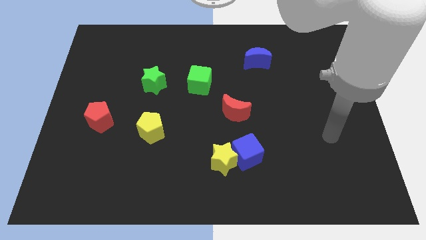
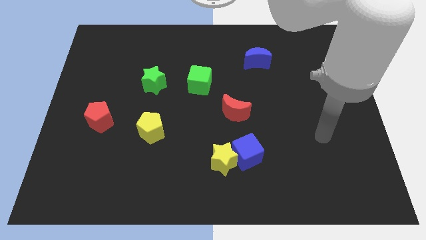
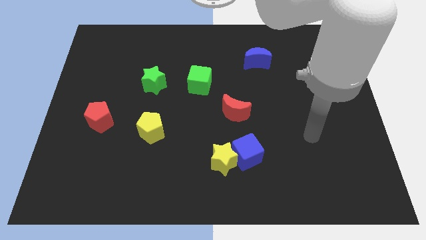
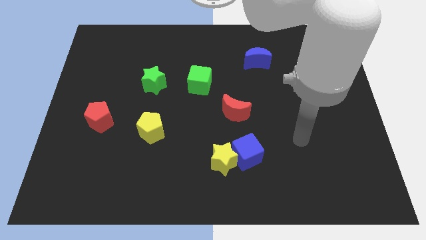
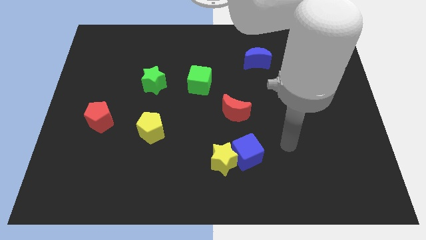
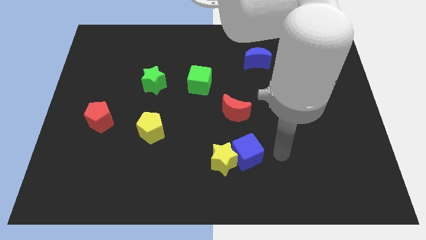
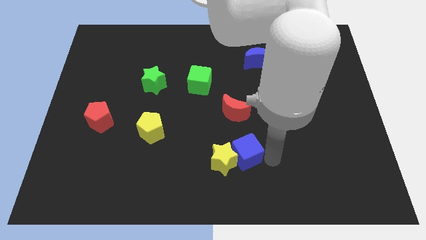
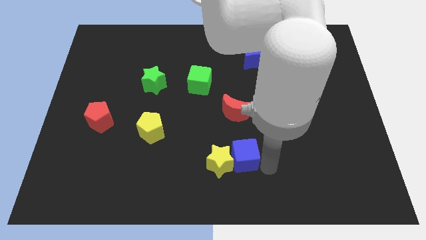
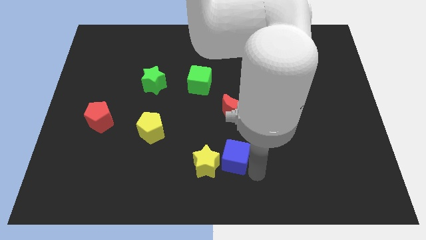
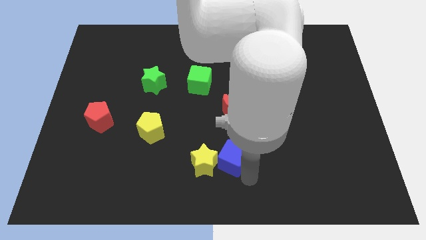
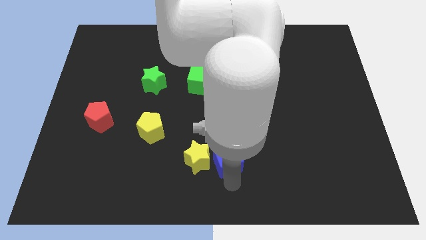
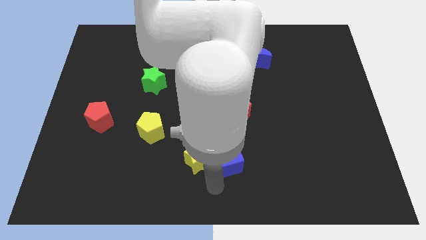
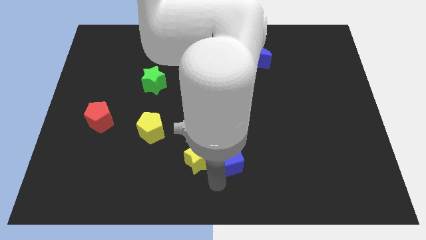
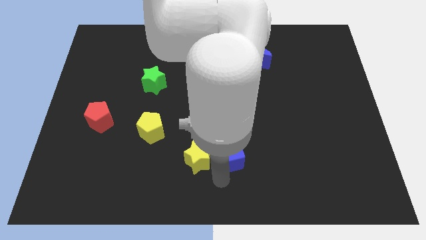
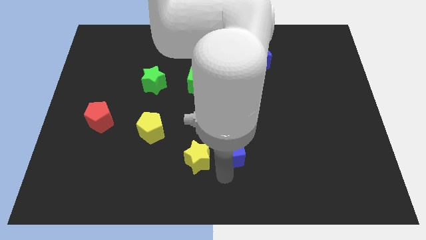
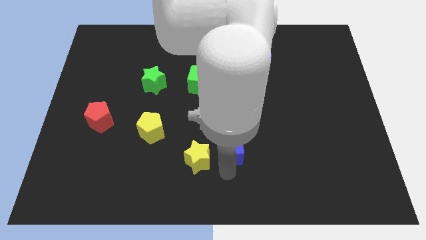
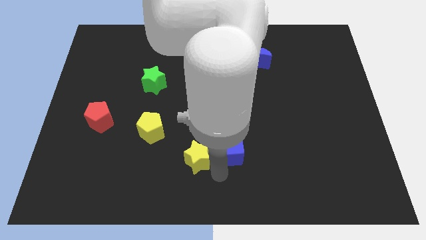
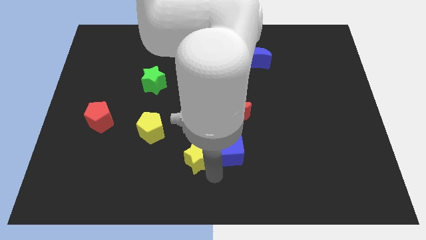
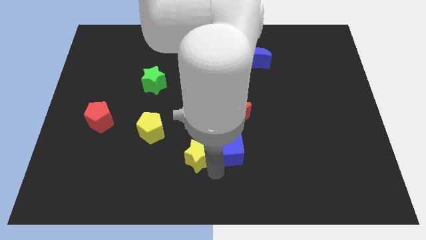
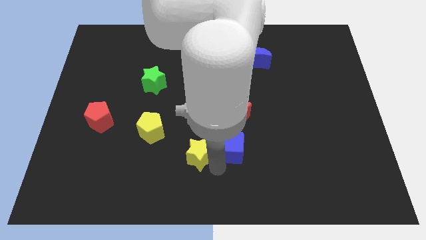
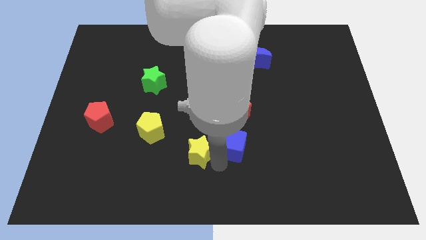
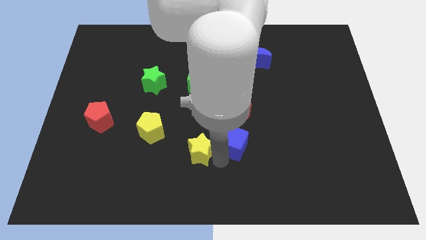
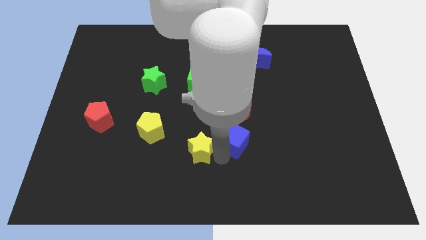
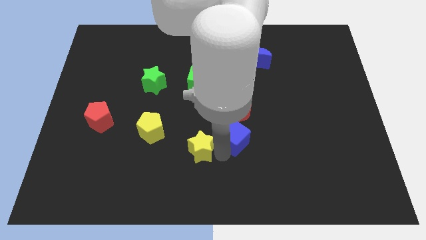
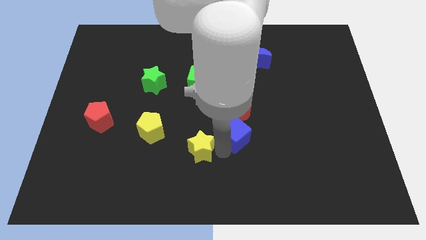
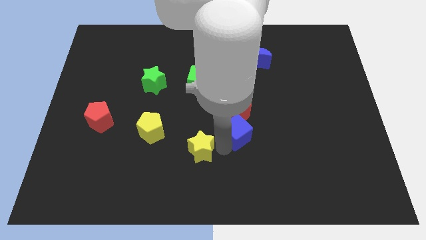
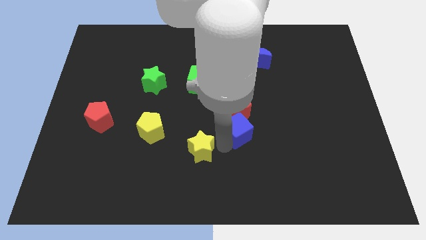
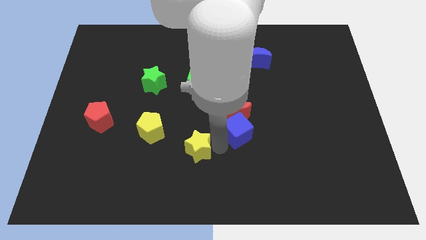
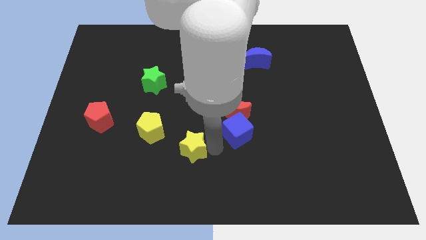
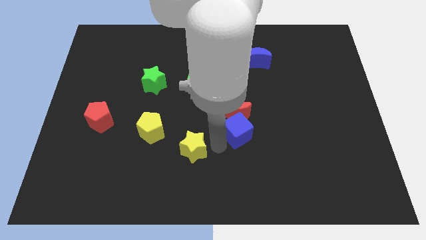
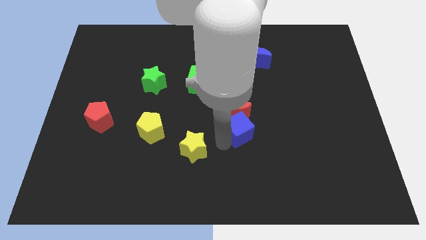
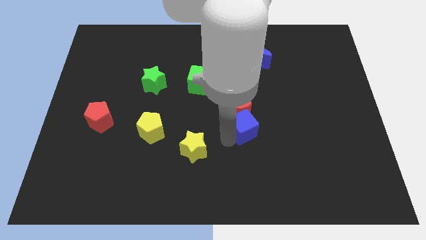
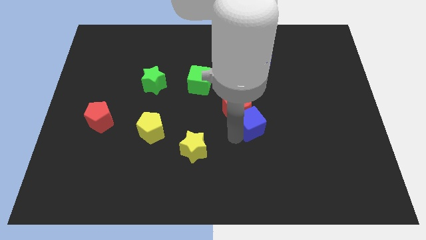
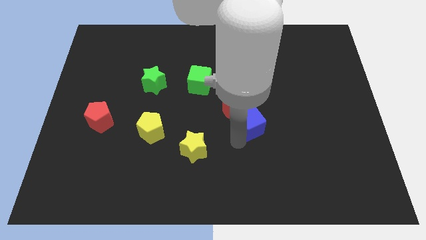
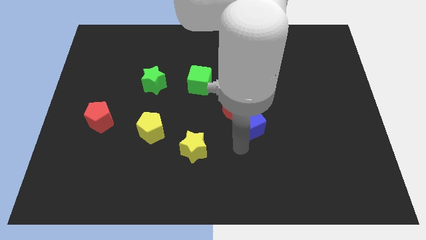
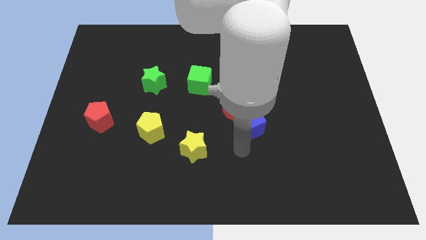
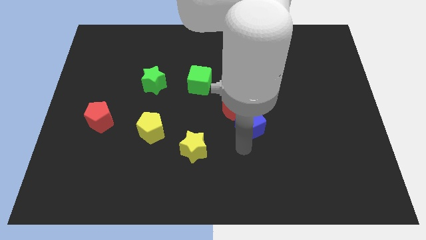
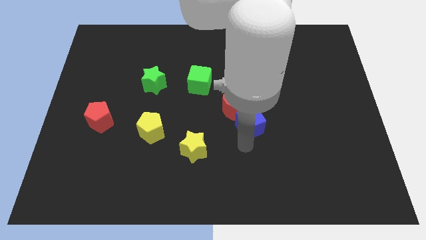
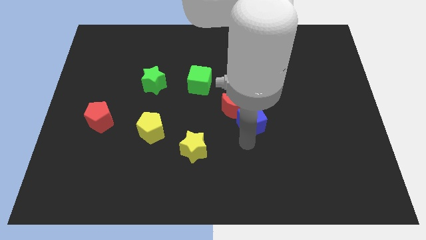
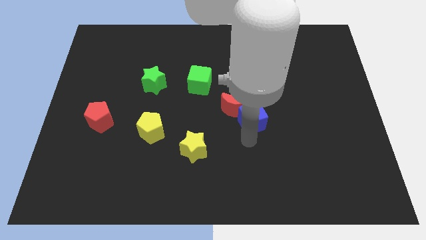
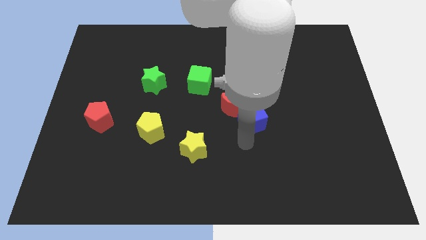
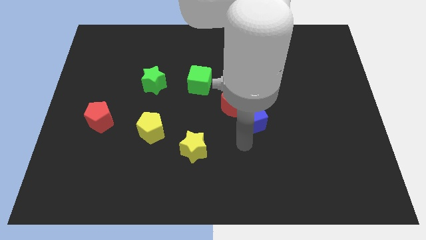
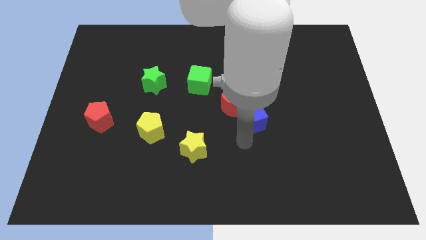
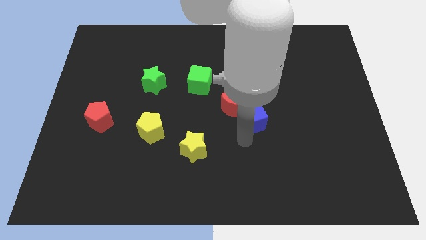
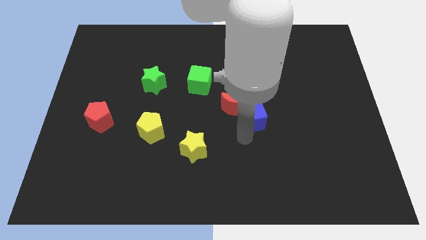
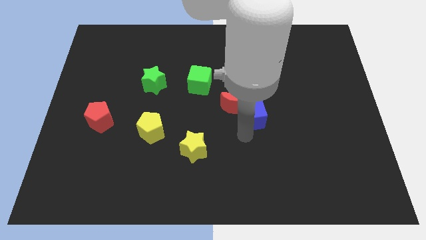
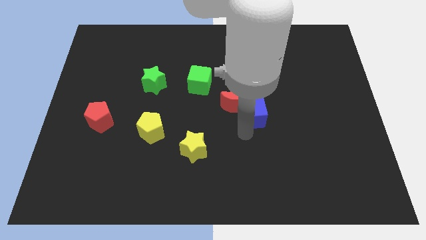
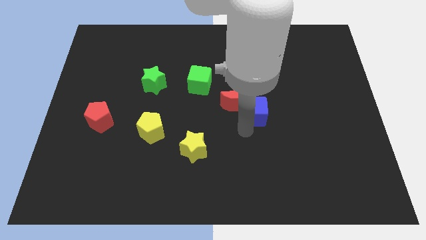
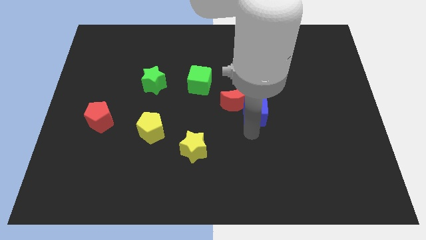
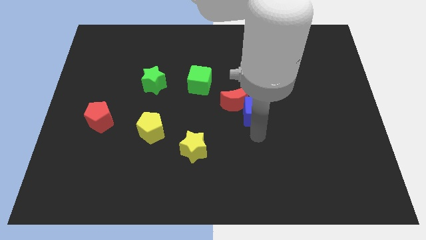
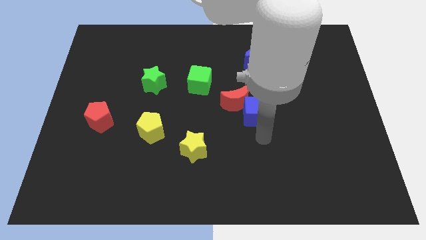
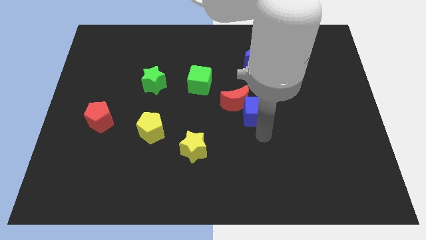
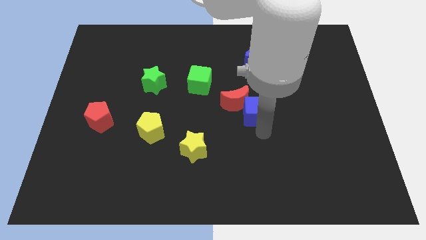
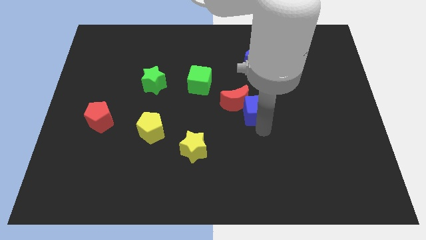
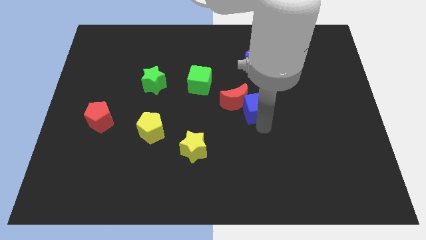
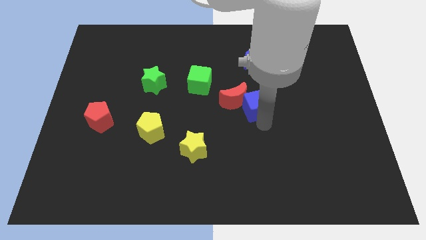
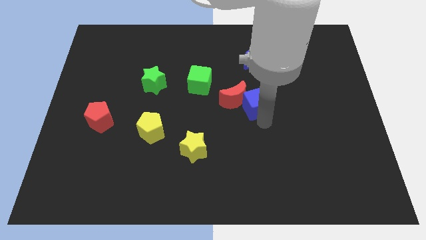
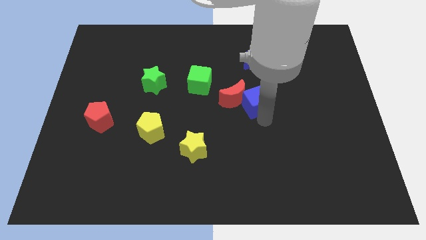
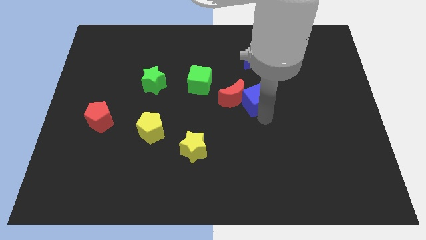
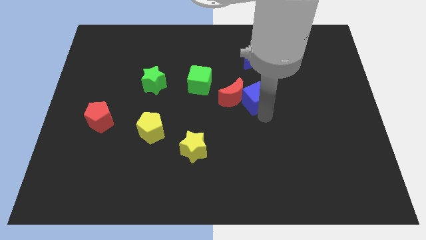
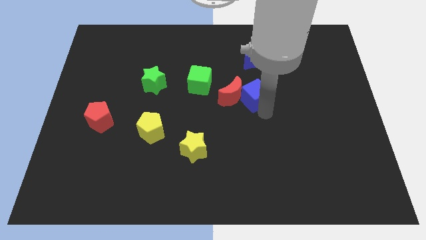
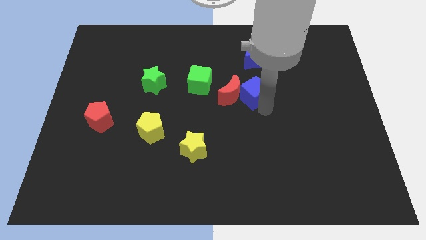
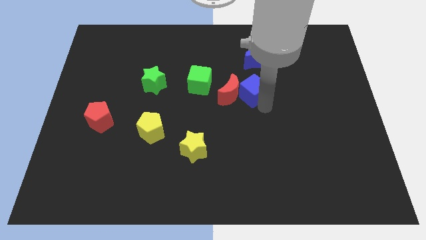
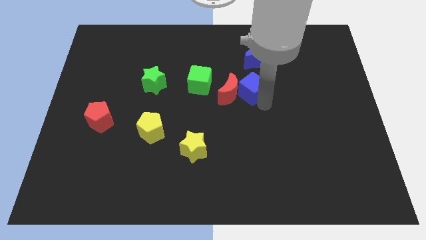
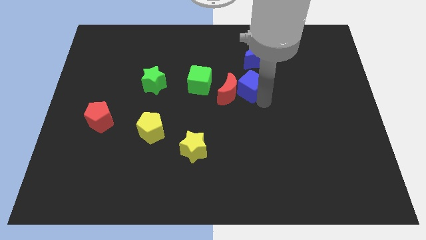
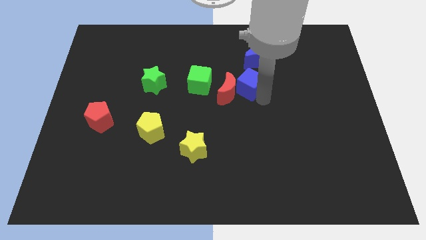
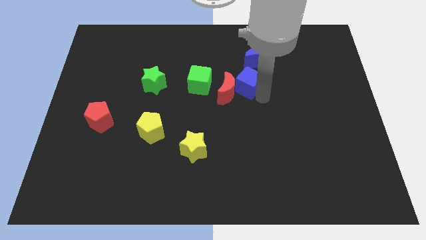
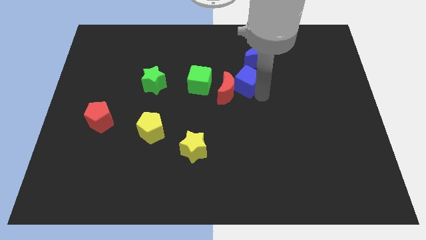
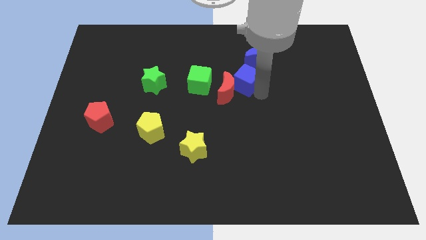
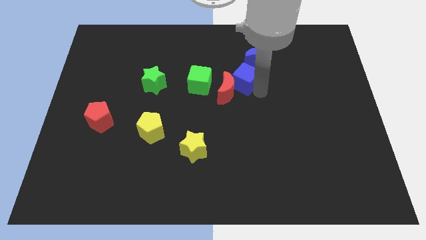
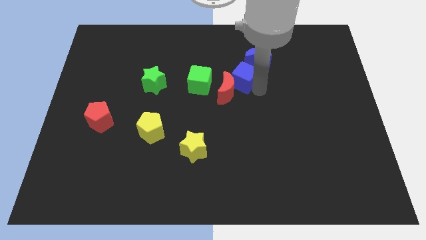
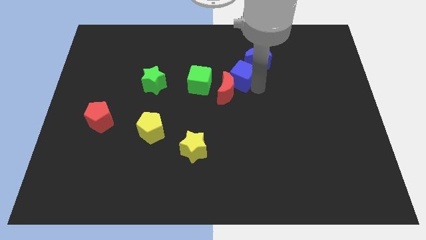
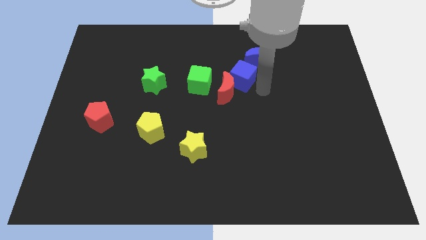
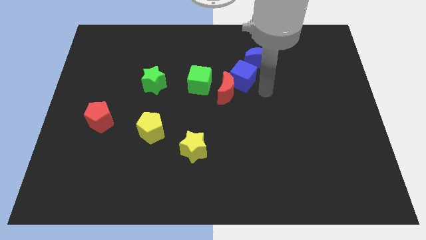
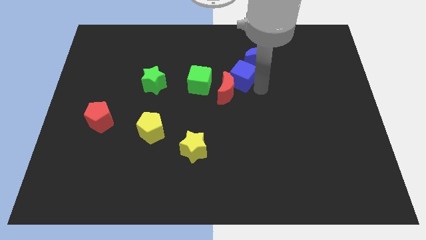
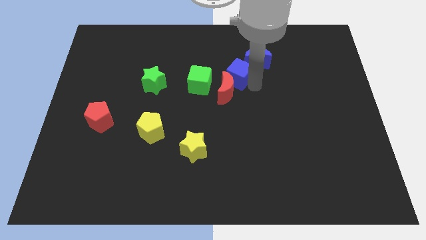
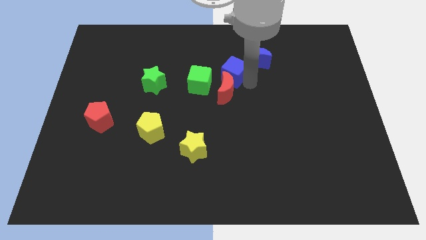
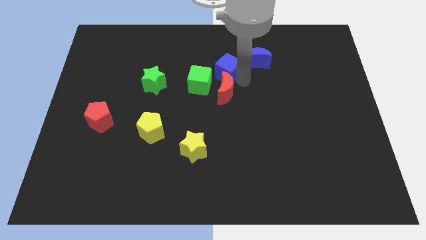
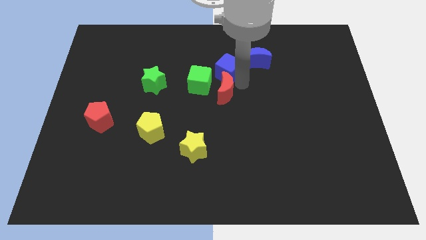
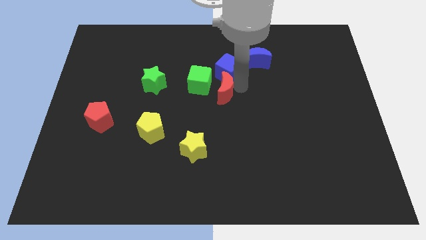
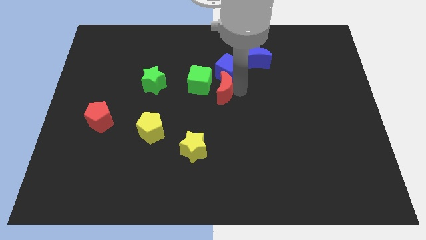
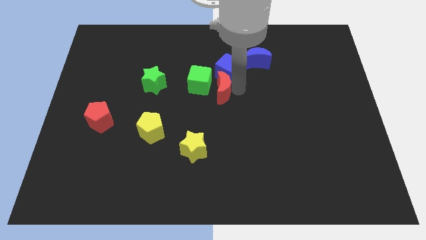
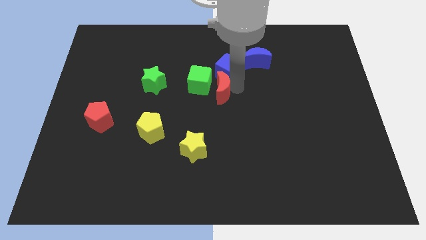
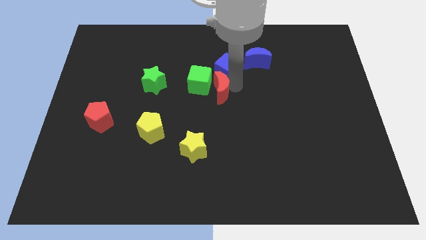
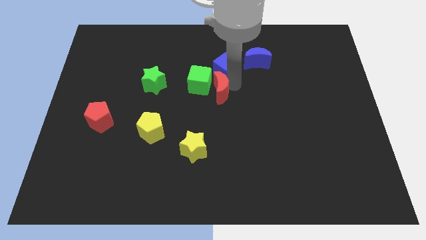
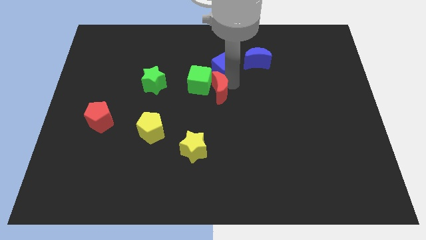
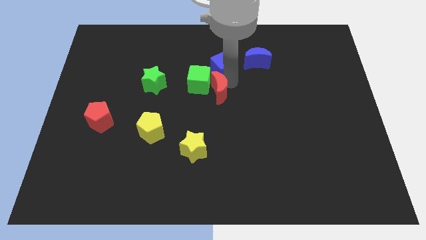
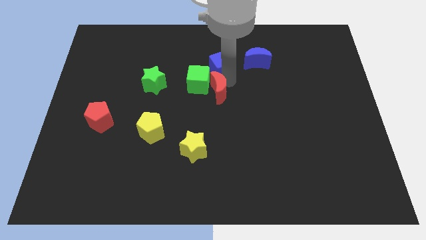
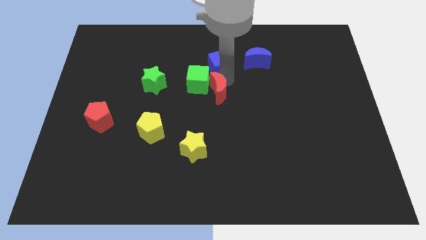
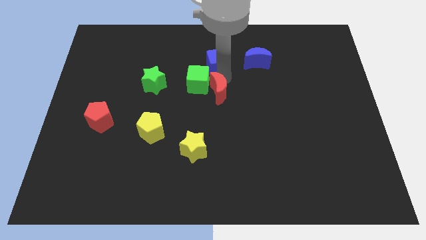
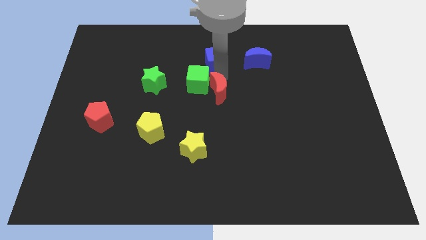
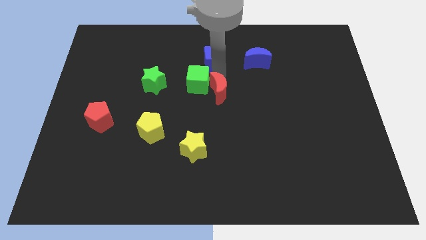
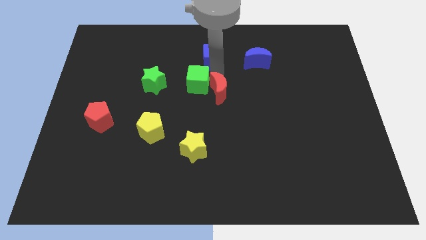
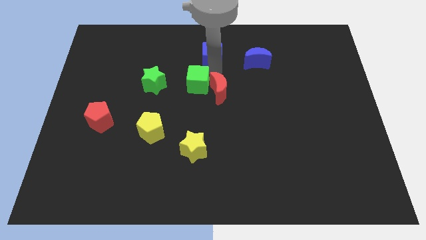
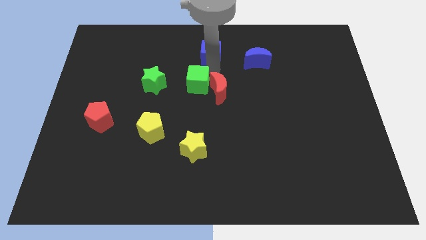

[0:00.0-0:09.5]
push the blue cube to the top
